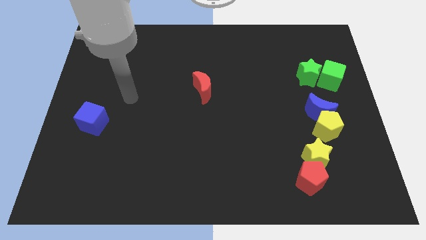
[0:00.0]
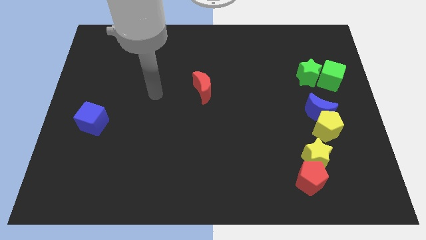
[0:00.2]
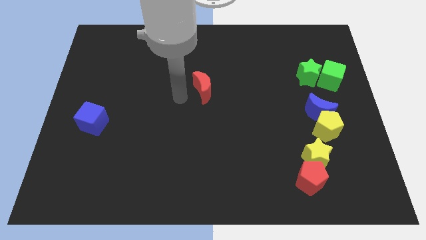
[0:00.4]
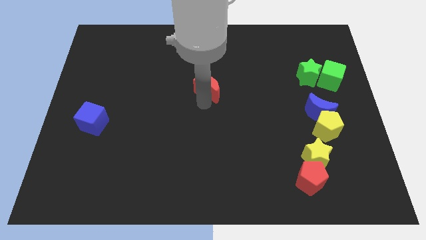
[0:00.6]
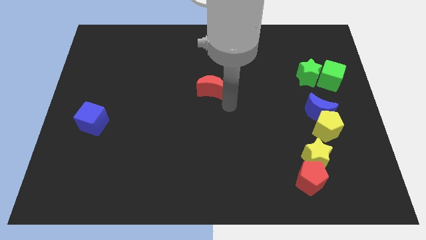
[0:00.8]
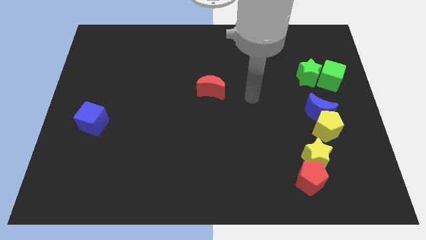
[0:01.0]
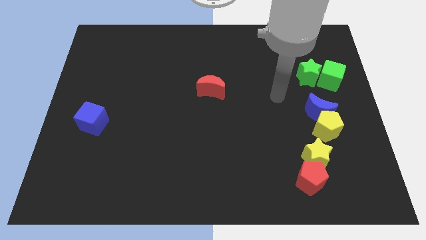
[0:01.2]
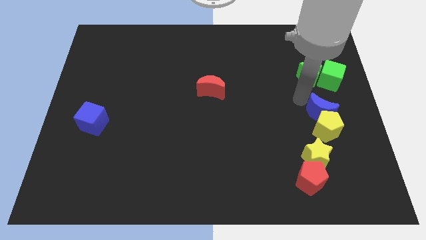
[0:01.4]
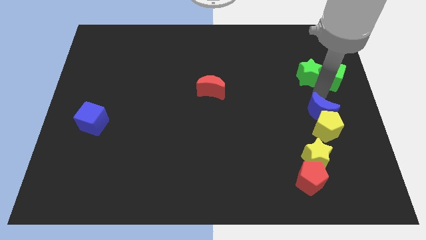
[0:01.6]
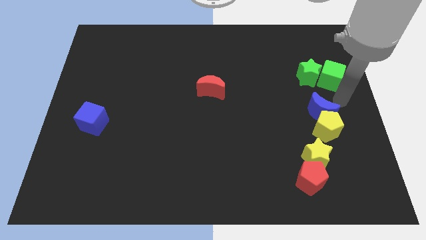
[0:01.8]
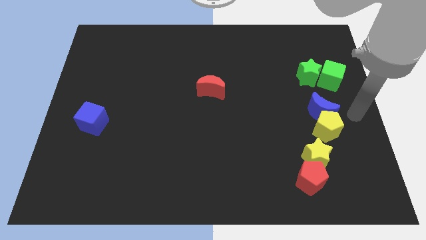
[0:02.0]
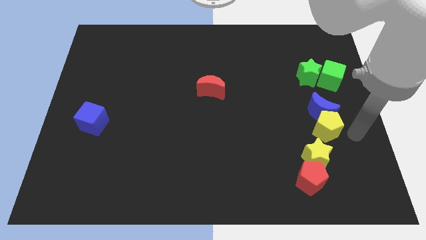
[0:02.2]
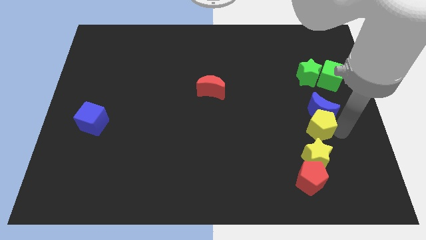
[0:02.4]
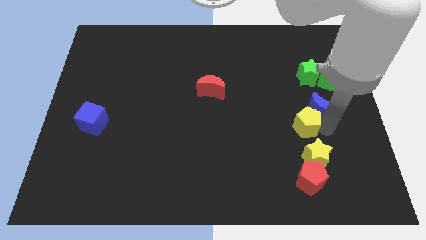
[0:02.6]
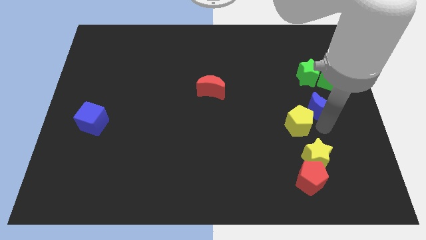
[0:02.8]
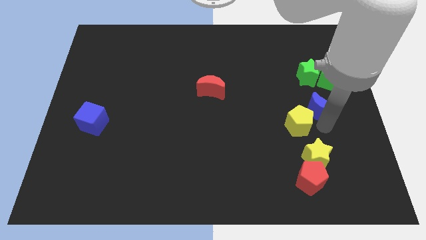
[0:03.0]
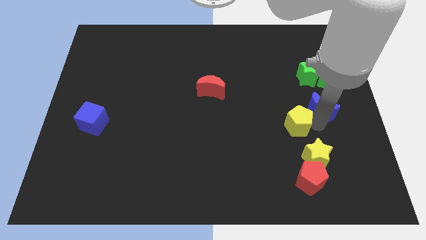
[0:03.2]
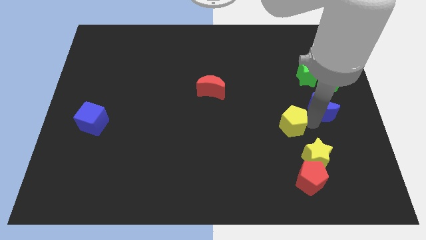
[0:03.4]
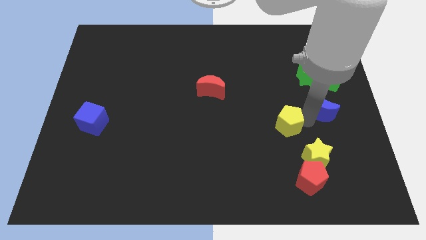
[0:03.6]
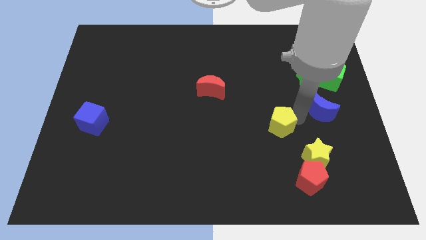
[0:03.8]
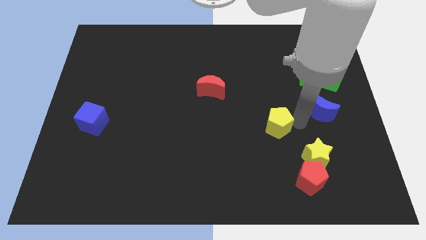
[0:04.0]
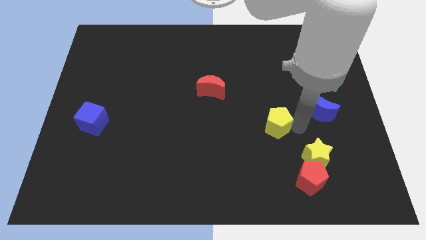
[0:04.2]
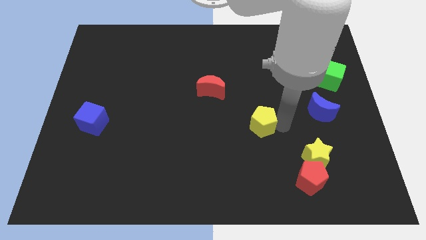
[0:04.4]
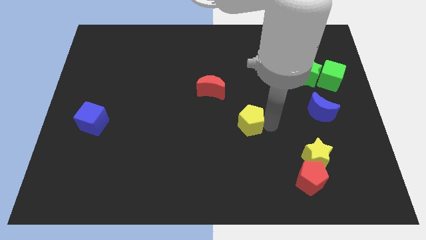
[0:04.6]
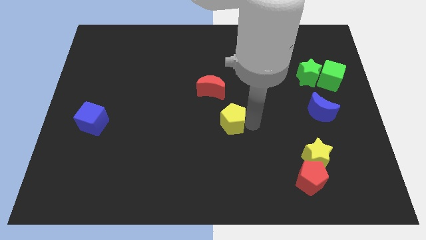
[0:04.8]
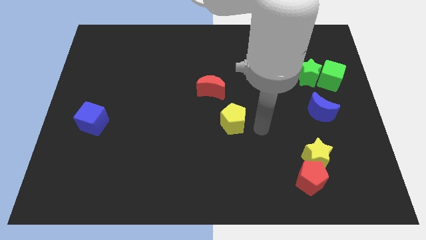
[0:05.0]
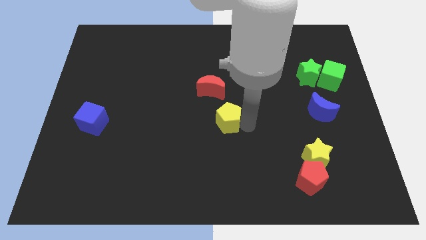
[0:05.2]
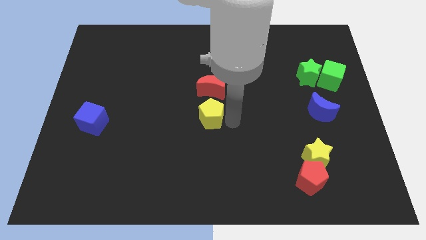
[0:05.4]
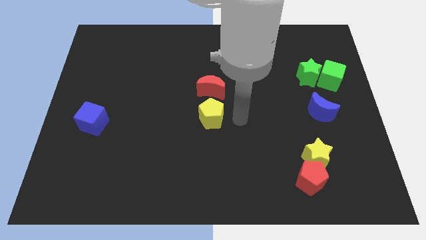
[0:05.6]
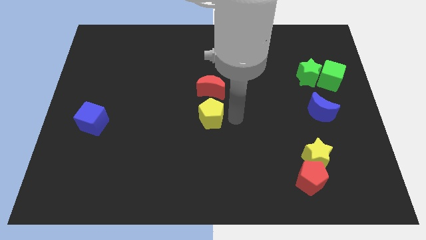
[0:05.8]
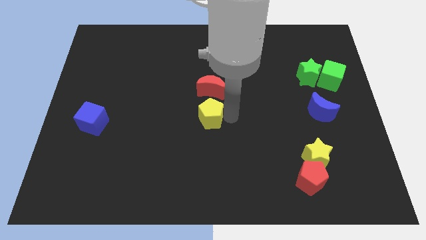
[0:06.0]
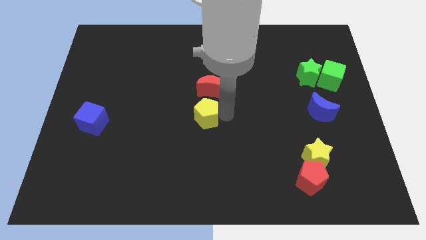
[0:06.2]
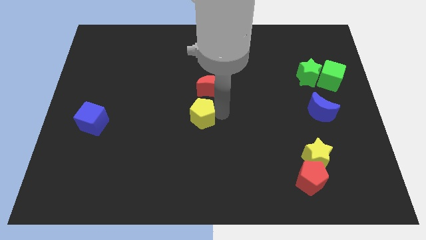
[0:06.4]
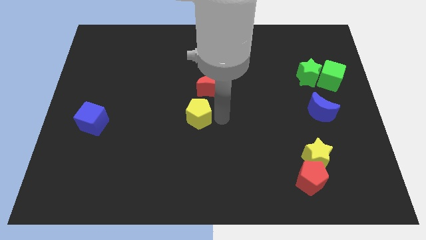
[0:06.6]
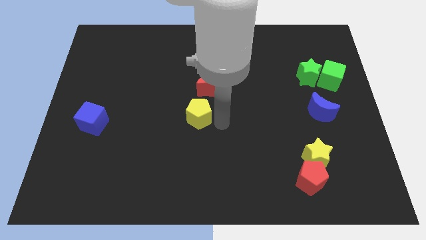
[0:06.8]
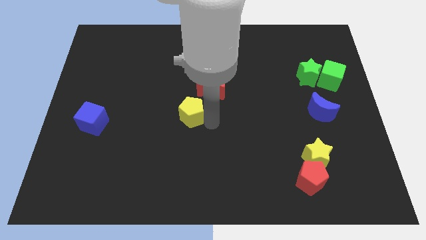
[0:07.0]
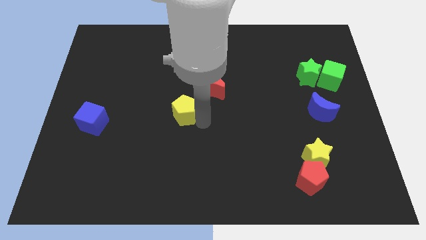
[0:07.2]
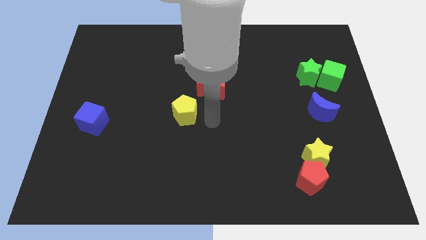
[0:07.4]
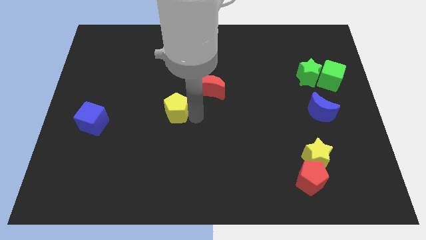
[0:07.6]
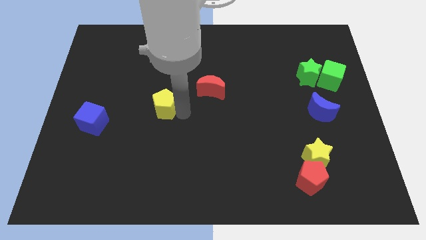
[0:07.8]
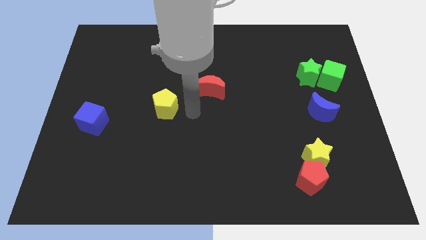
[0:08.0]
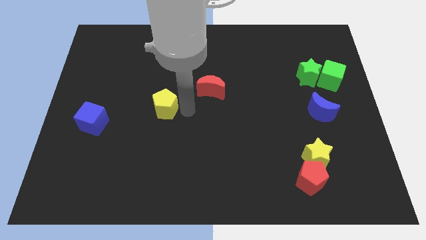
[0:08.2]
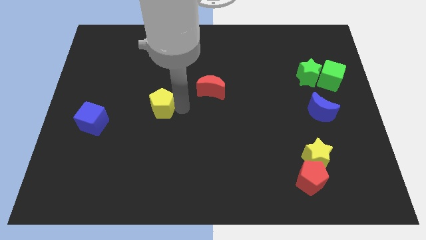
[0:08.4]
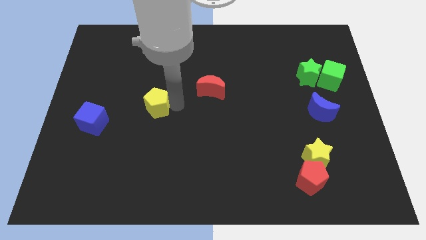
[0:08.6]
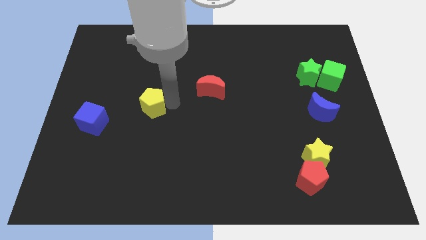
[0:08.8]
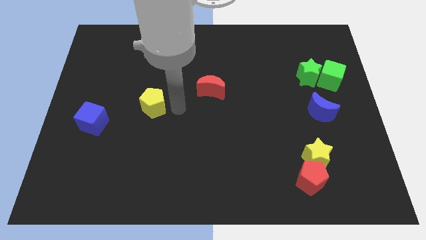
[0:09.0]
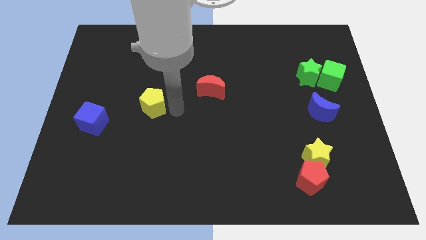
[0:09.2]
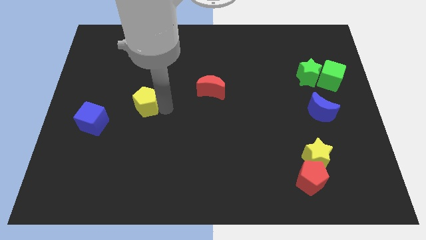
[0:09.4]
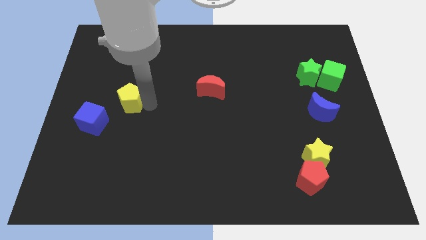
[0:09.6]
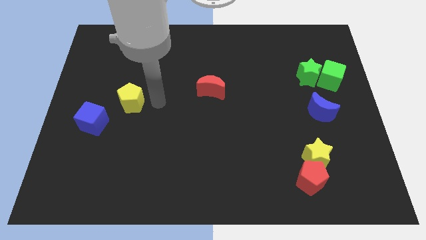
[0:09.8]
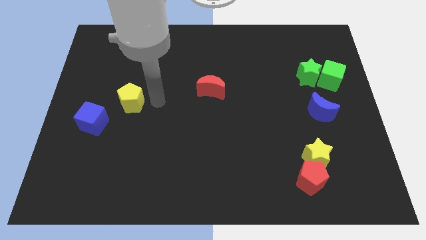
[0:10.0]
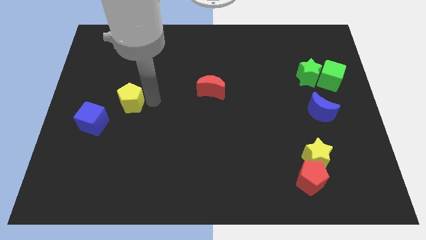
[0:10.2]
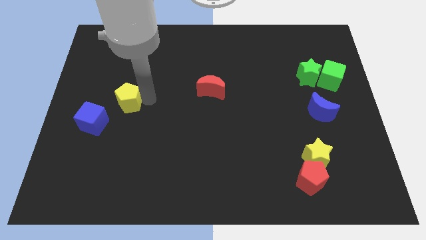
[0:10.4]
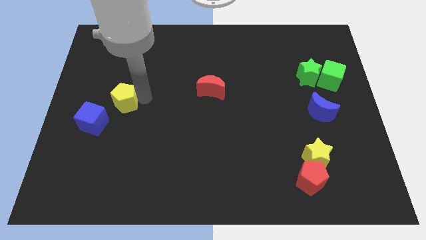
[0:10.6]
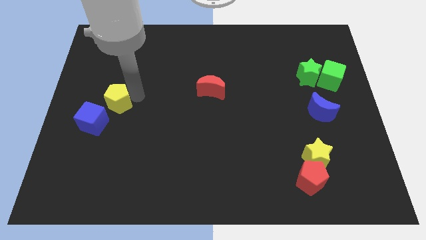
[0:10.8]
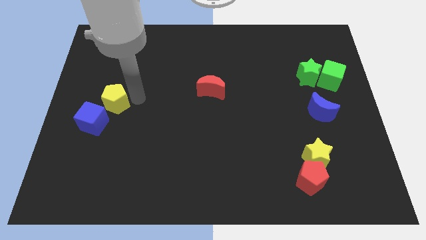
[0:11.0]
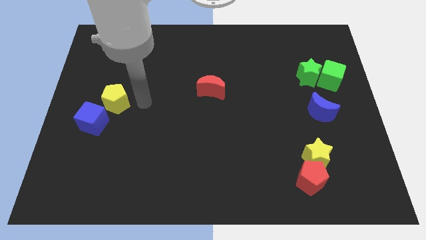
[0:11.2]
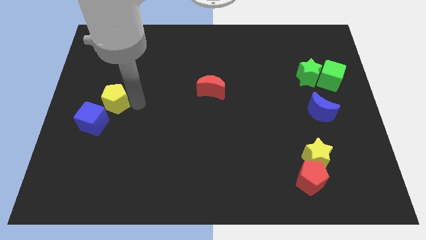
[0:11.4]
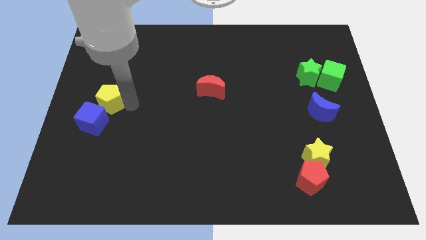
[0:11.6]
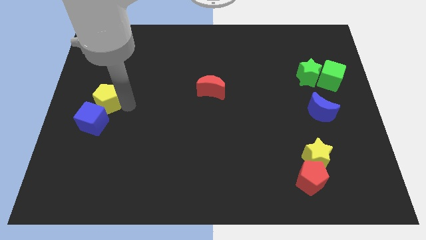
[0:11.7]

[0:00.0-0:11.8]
put the yellow pentagon to the center left

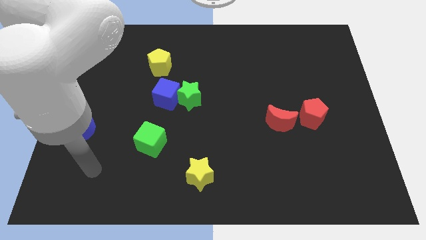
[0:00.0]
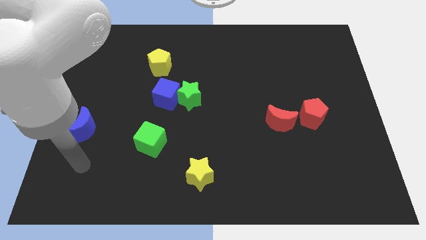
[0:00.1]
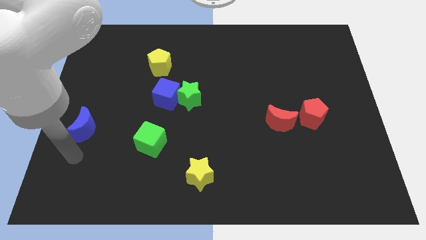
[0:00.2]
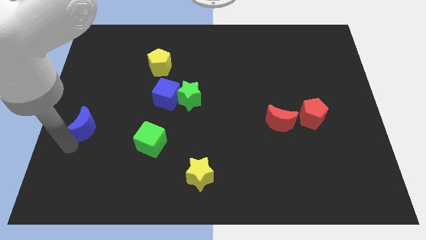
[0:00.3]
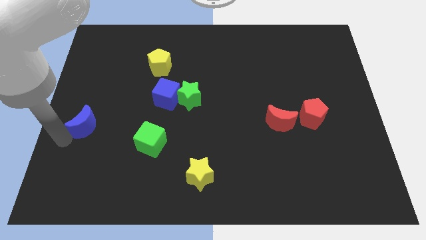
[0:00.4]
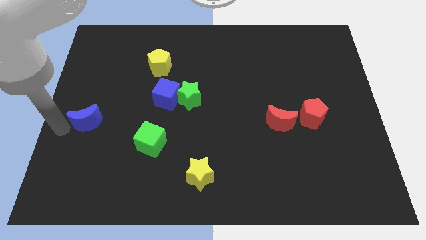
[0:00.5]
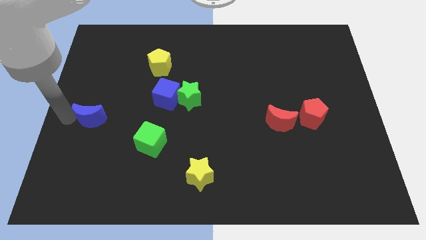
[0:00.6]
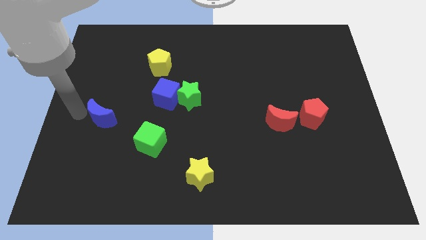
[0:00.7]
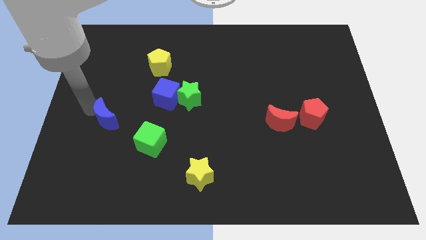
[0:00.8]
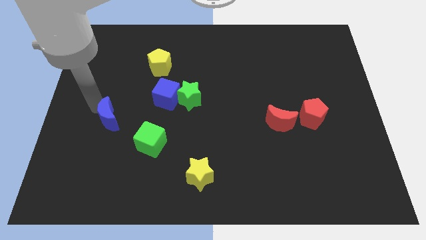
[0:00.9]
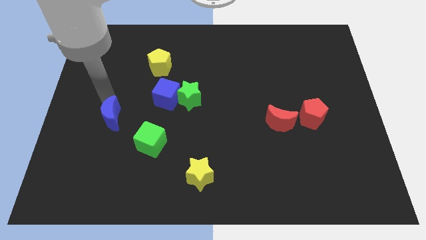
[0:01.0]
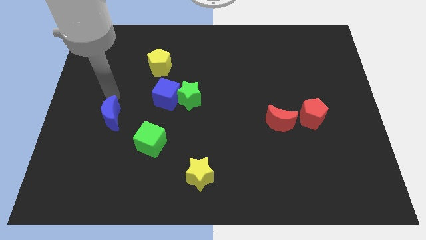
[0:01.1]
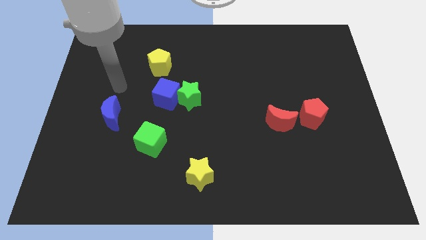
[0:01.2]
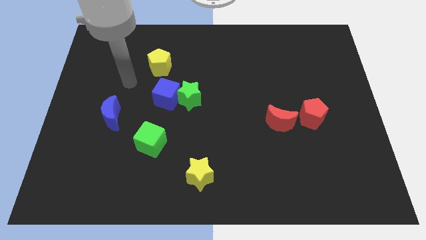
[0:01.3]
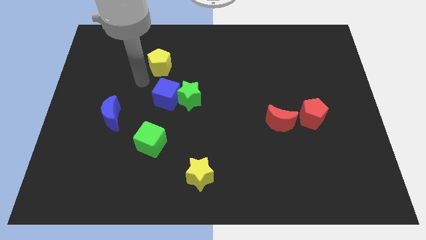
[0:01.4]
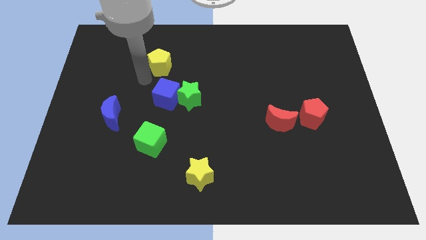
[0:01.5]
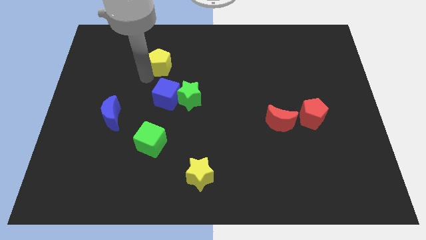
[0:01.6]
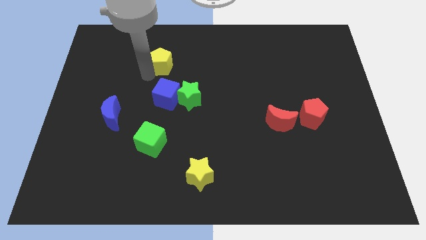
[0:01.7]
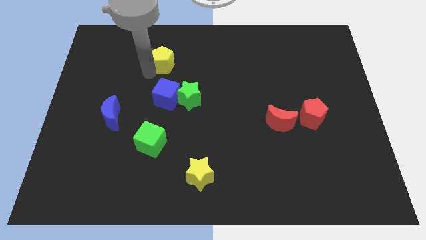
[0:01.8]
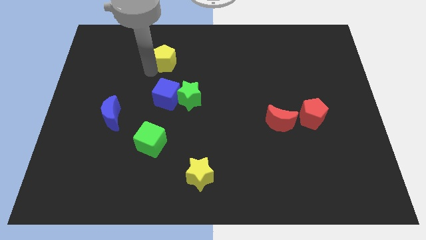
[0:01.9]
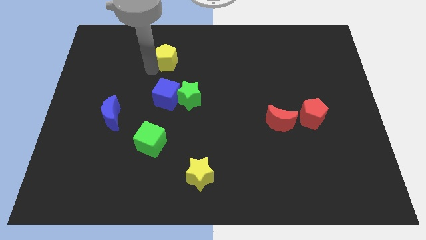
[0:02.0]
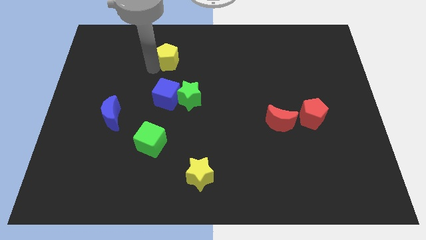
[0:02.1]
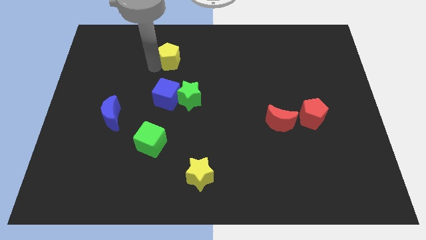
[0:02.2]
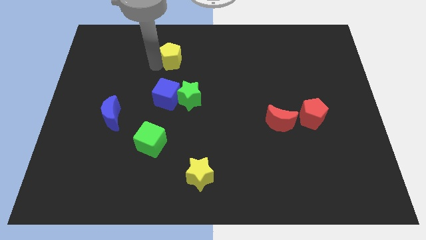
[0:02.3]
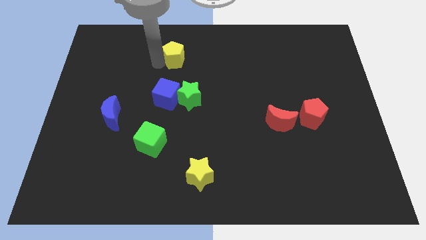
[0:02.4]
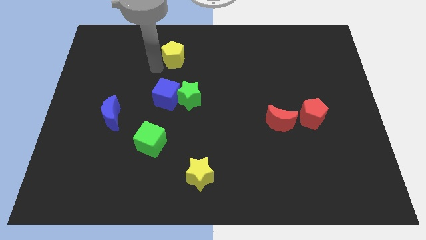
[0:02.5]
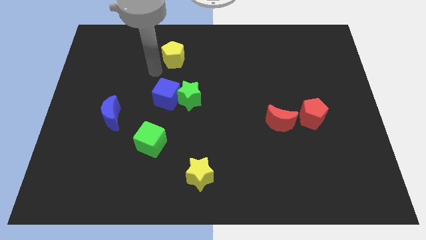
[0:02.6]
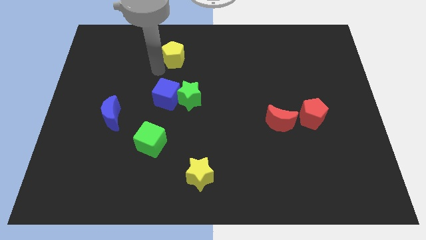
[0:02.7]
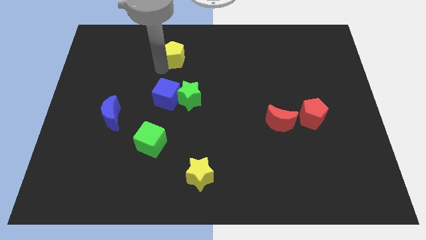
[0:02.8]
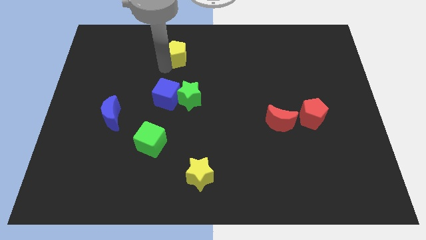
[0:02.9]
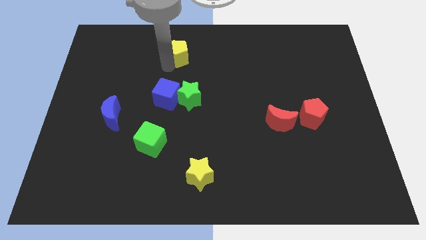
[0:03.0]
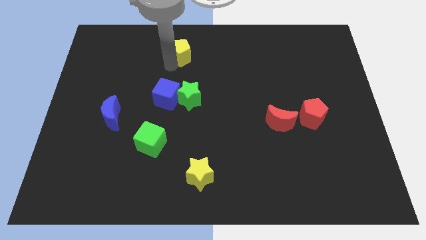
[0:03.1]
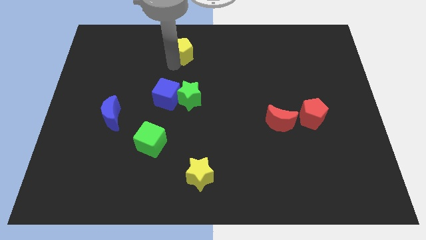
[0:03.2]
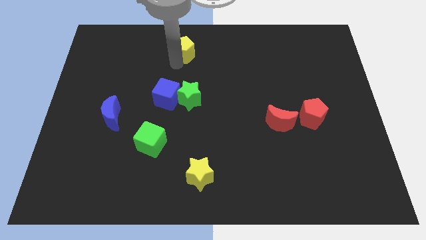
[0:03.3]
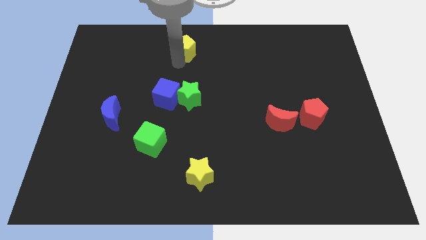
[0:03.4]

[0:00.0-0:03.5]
put the yellow pentagon to the towards your base
